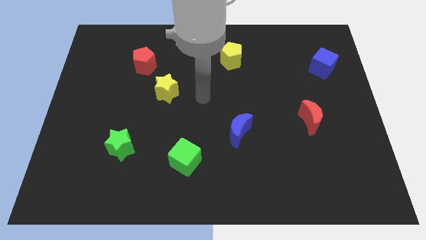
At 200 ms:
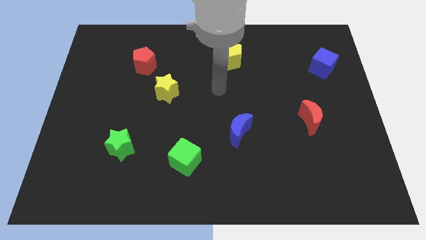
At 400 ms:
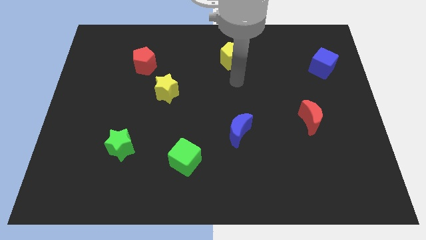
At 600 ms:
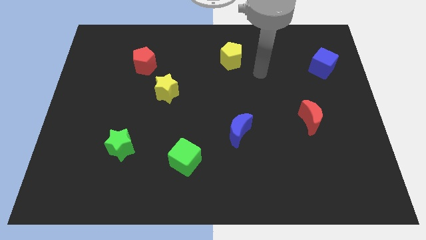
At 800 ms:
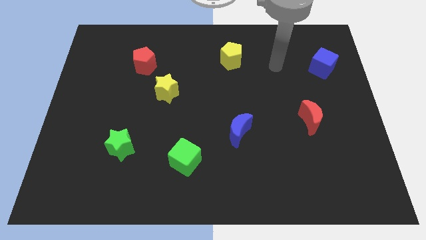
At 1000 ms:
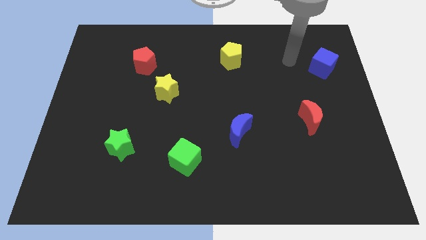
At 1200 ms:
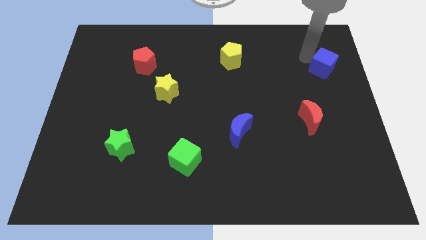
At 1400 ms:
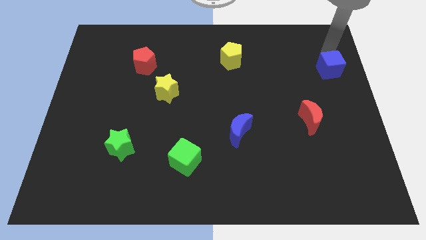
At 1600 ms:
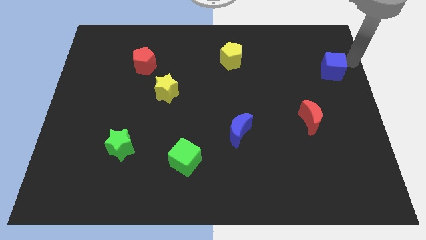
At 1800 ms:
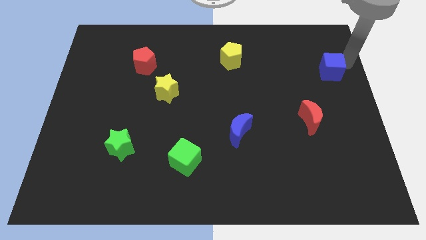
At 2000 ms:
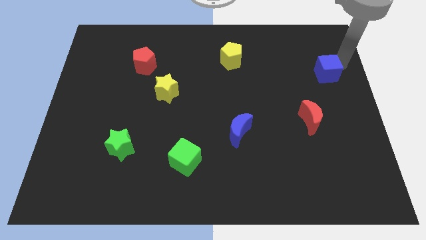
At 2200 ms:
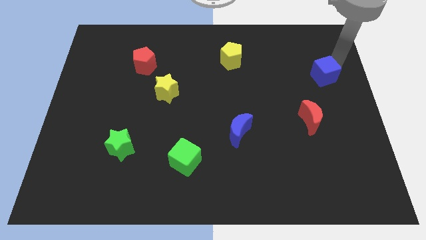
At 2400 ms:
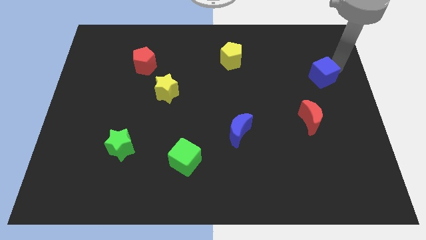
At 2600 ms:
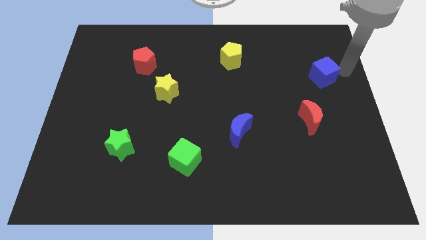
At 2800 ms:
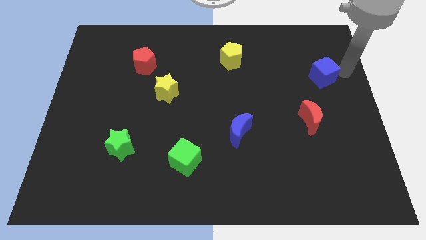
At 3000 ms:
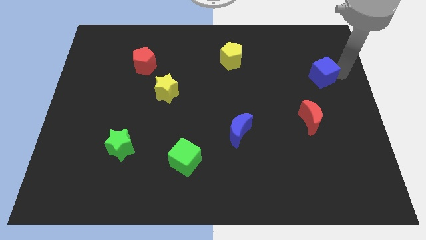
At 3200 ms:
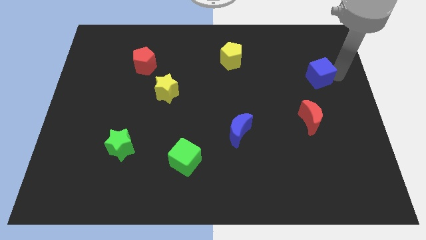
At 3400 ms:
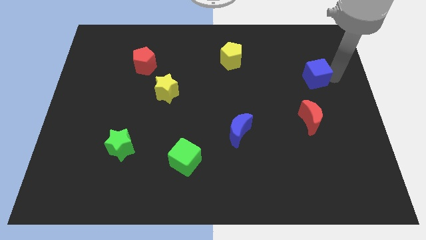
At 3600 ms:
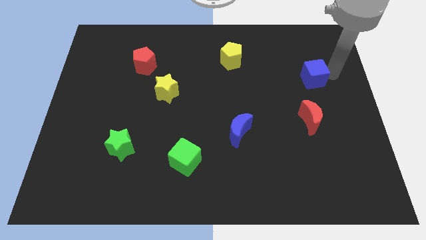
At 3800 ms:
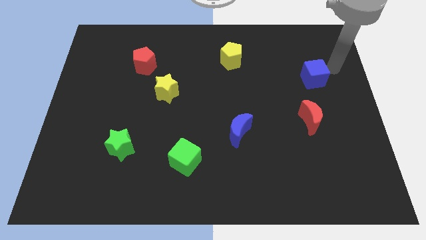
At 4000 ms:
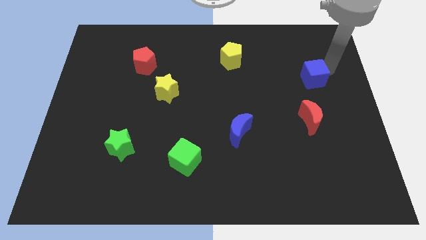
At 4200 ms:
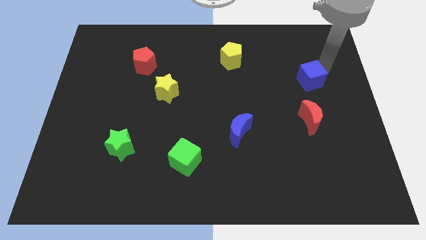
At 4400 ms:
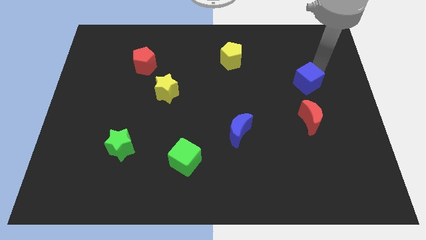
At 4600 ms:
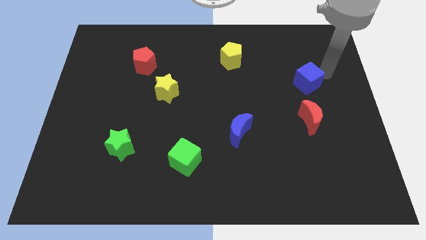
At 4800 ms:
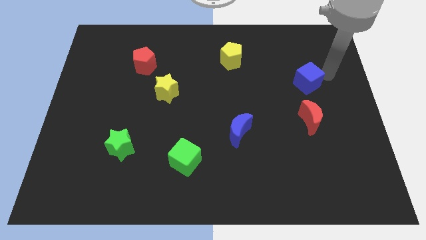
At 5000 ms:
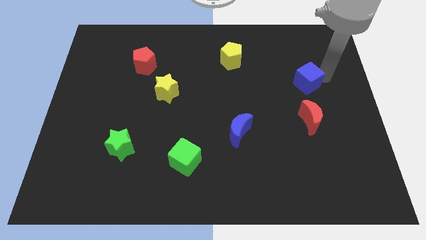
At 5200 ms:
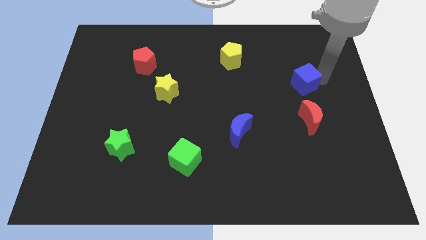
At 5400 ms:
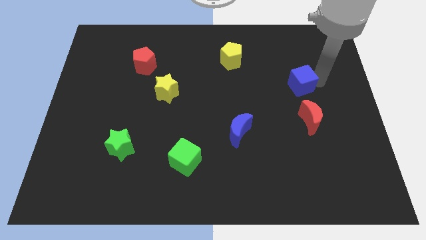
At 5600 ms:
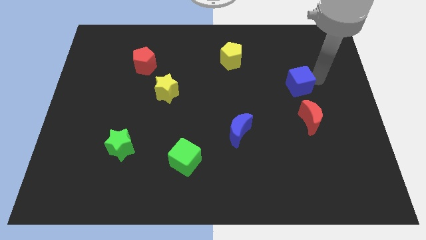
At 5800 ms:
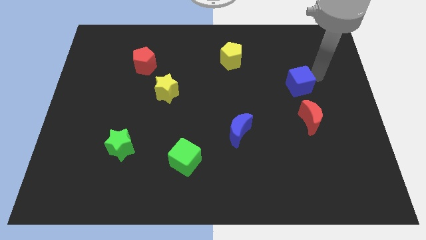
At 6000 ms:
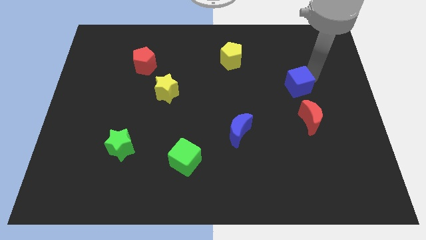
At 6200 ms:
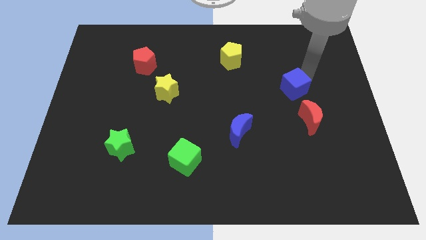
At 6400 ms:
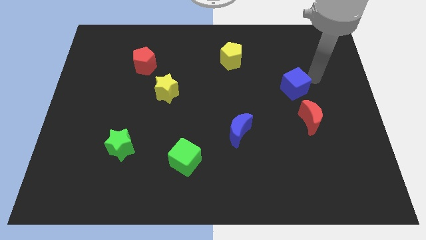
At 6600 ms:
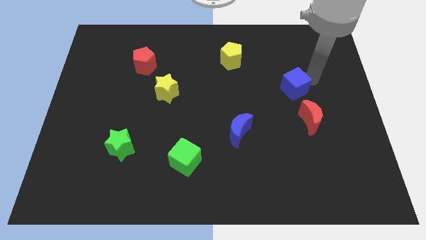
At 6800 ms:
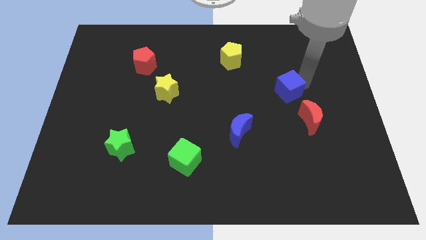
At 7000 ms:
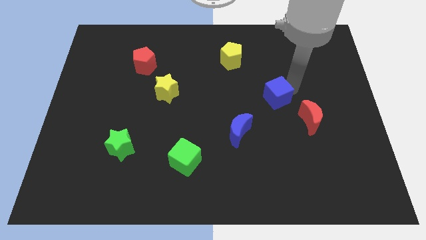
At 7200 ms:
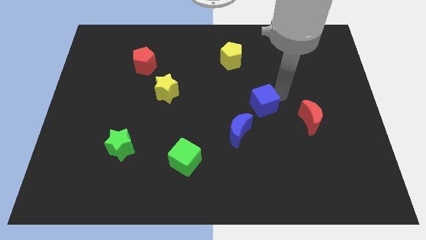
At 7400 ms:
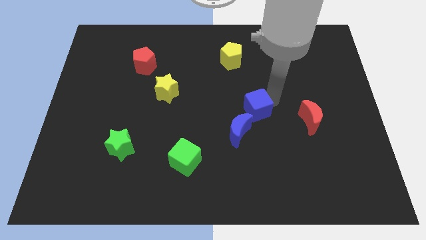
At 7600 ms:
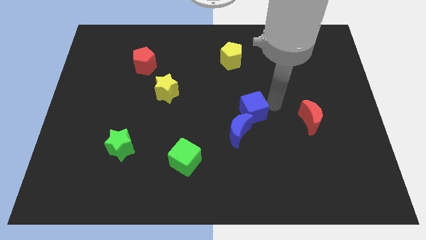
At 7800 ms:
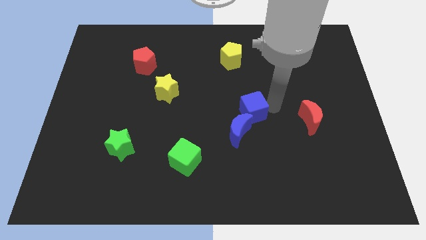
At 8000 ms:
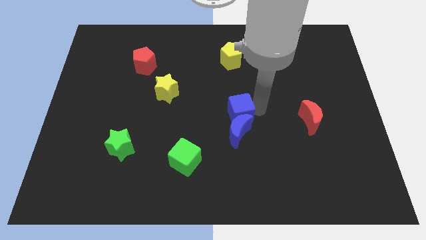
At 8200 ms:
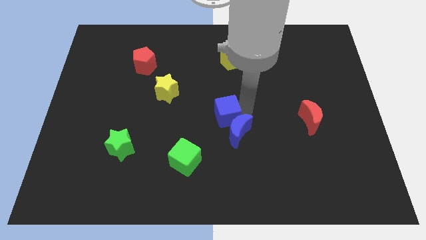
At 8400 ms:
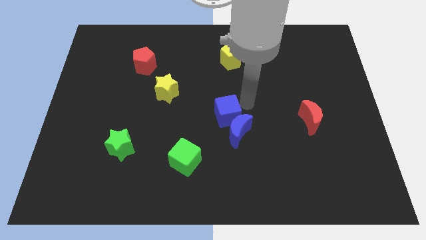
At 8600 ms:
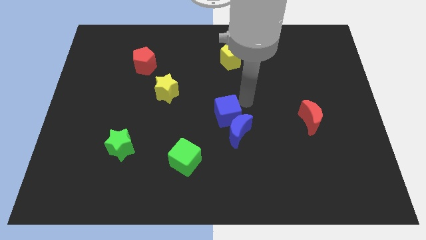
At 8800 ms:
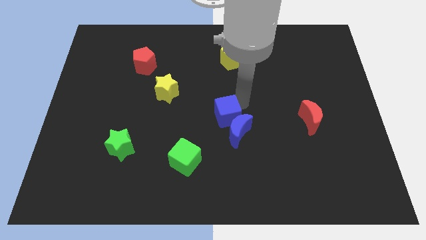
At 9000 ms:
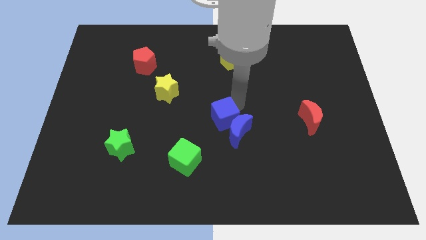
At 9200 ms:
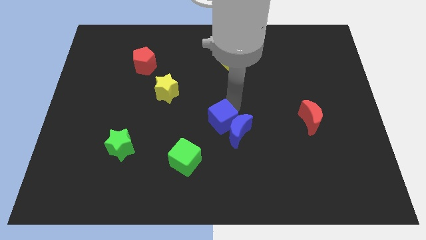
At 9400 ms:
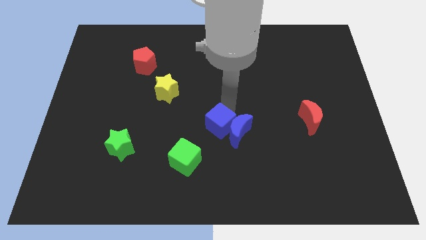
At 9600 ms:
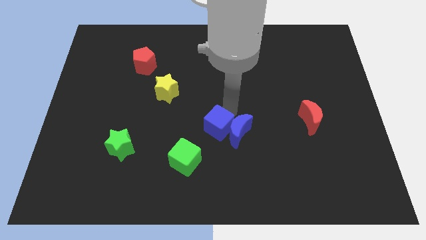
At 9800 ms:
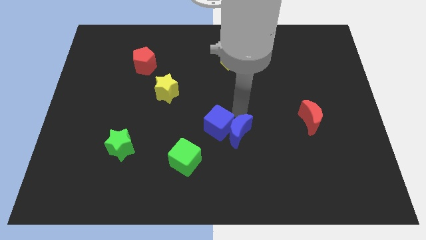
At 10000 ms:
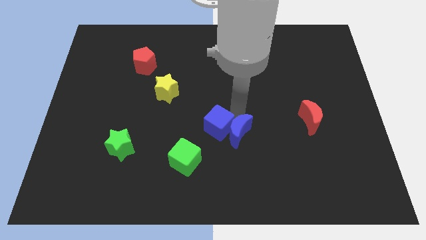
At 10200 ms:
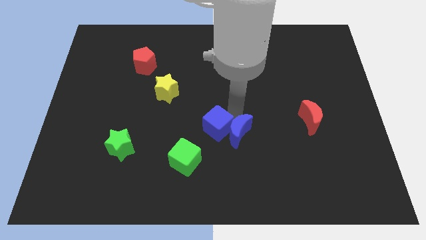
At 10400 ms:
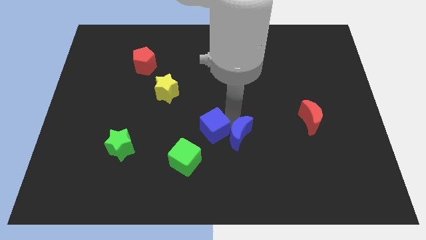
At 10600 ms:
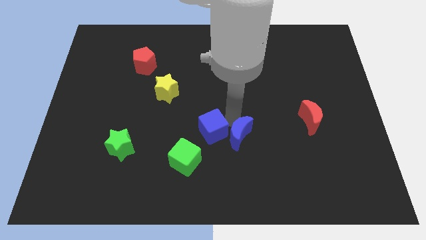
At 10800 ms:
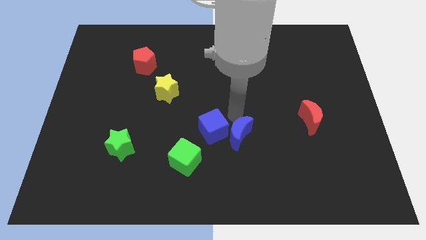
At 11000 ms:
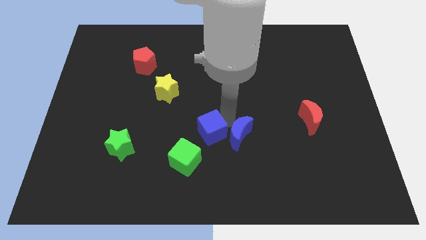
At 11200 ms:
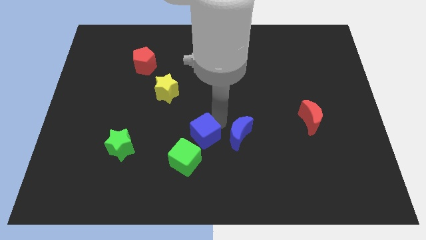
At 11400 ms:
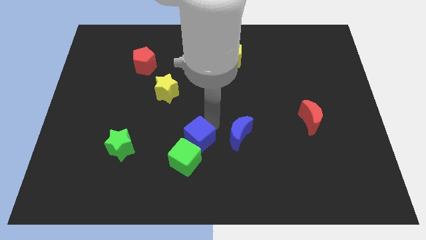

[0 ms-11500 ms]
move the blue cube towards the green cube

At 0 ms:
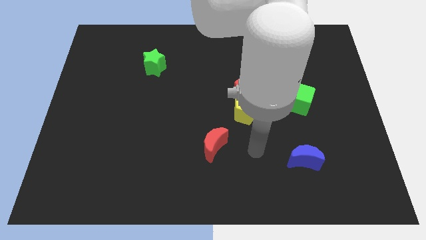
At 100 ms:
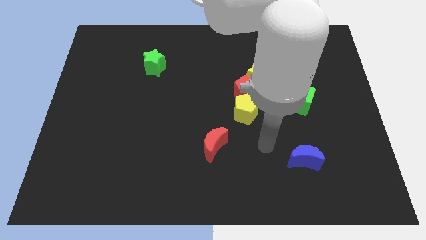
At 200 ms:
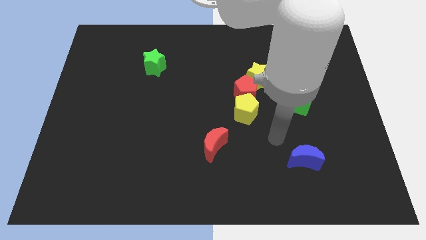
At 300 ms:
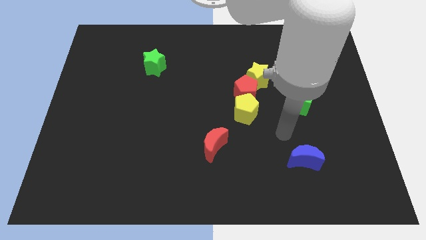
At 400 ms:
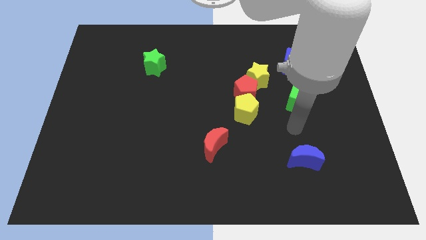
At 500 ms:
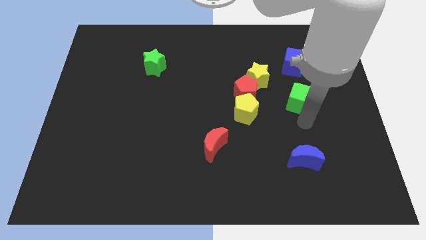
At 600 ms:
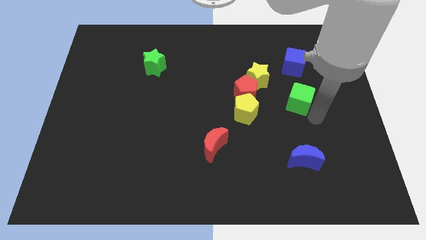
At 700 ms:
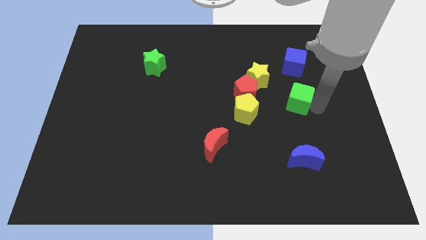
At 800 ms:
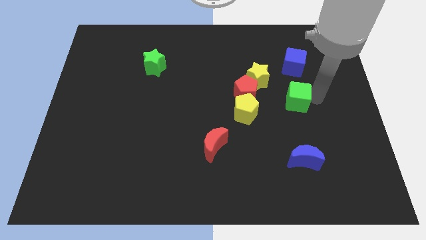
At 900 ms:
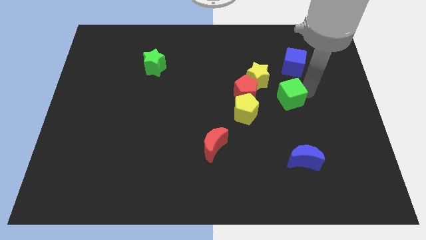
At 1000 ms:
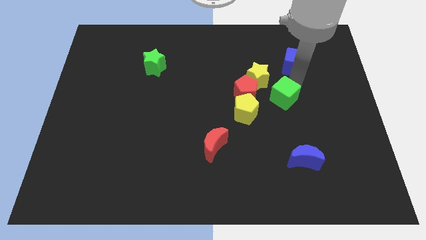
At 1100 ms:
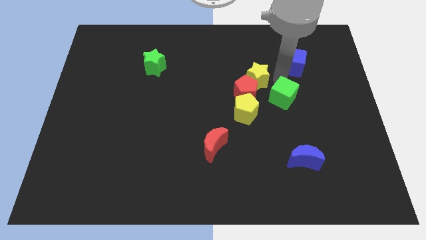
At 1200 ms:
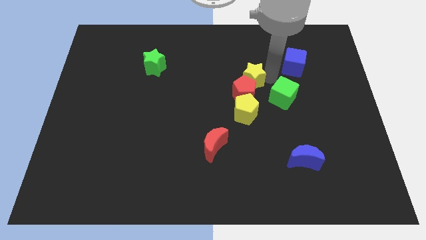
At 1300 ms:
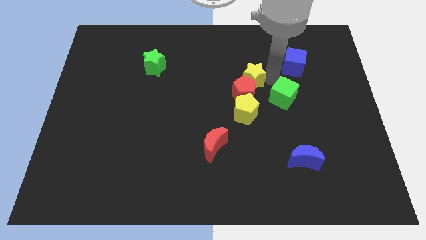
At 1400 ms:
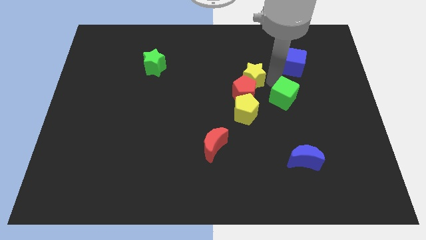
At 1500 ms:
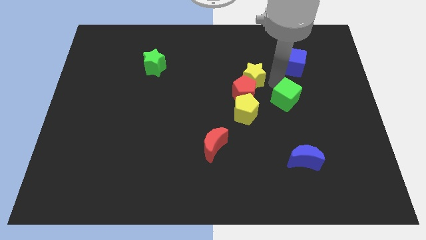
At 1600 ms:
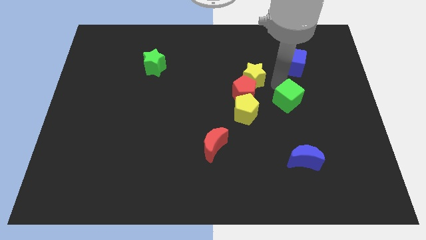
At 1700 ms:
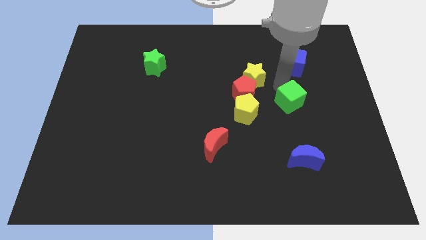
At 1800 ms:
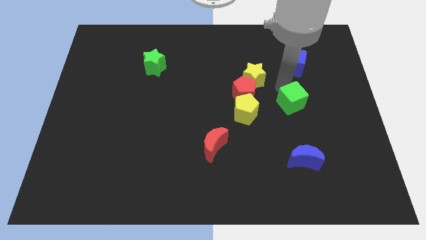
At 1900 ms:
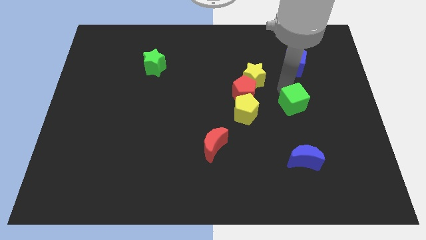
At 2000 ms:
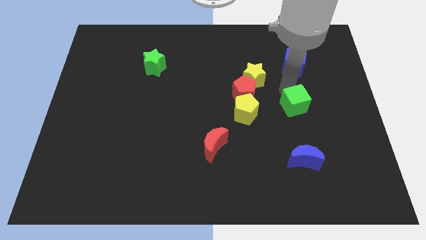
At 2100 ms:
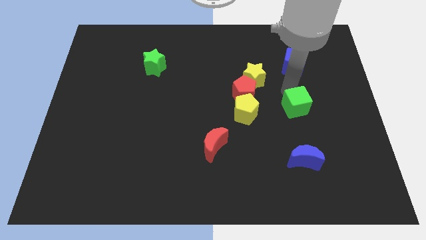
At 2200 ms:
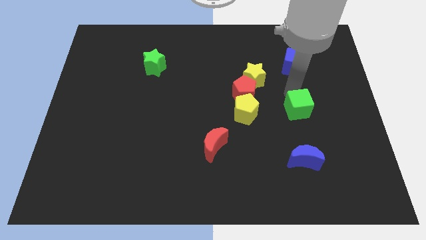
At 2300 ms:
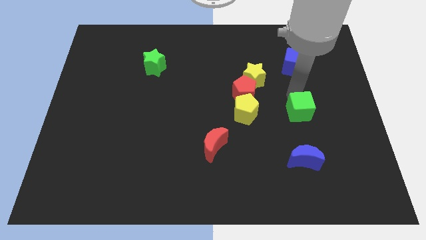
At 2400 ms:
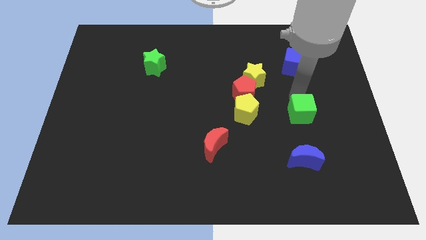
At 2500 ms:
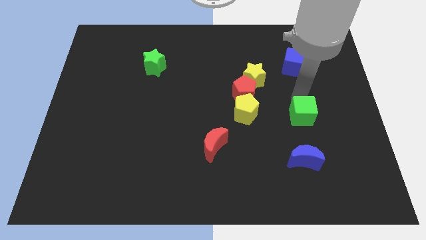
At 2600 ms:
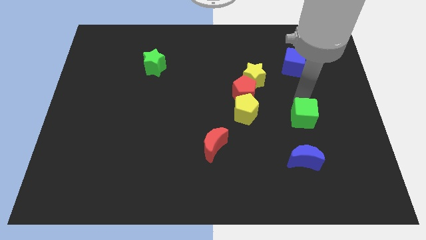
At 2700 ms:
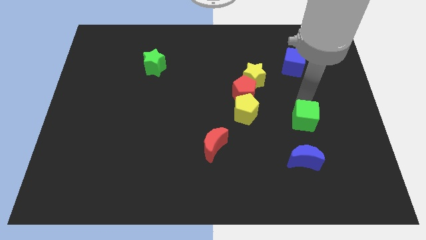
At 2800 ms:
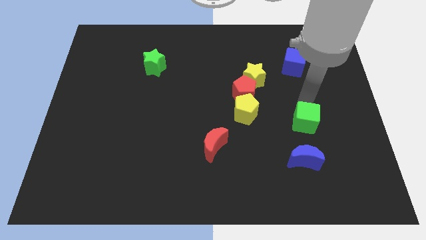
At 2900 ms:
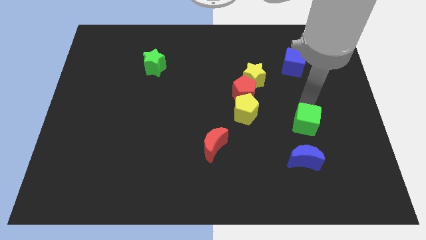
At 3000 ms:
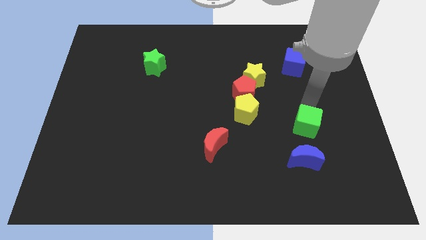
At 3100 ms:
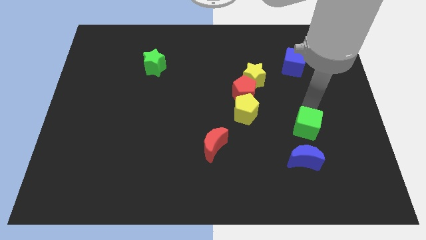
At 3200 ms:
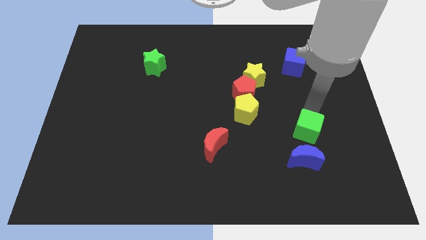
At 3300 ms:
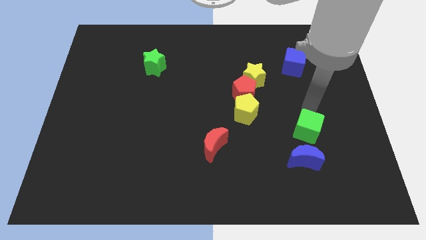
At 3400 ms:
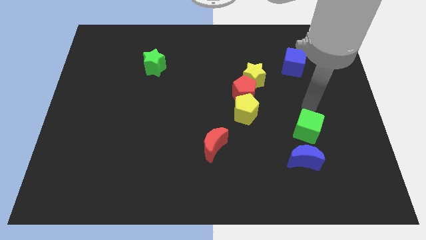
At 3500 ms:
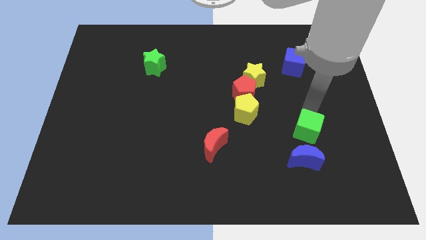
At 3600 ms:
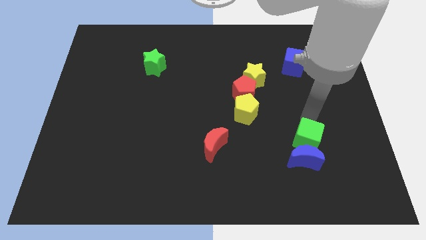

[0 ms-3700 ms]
put the green cube next to the blue moon
